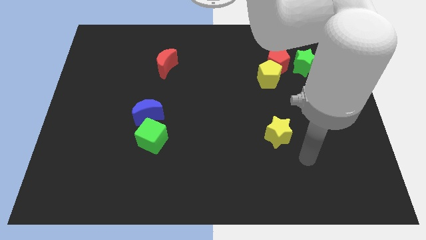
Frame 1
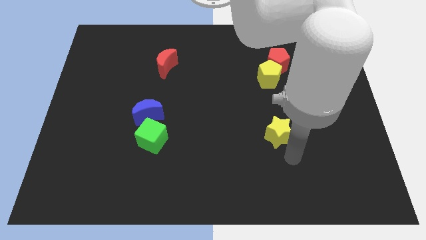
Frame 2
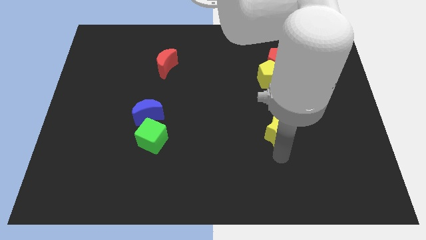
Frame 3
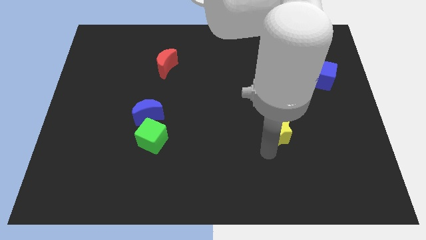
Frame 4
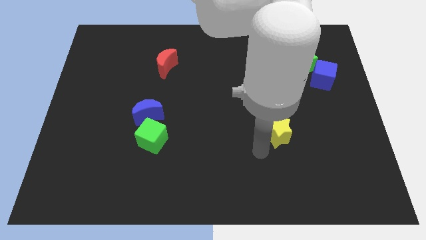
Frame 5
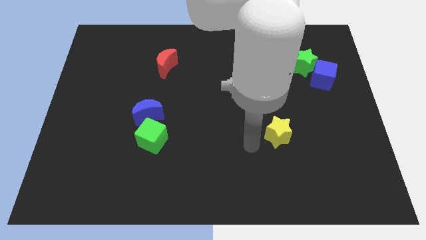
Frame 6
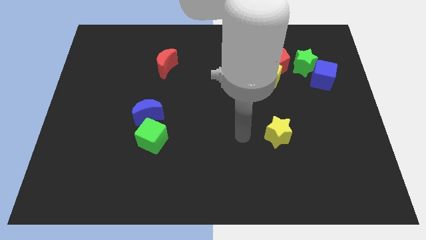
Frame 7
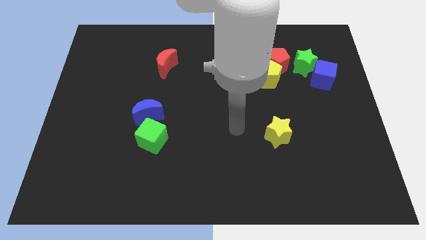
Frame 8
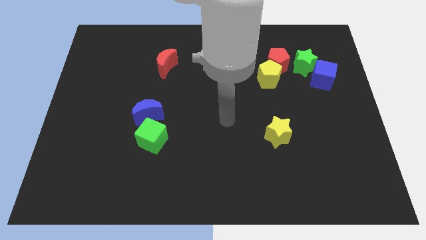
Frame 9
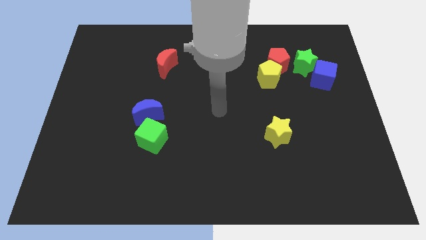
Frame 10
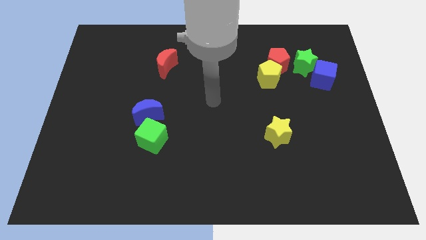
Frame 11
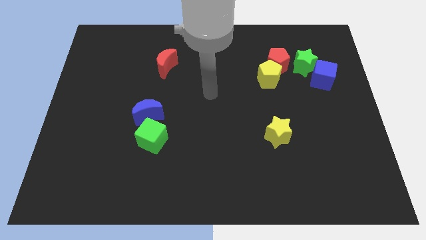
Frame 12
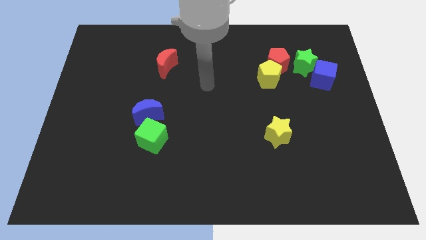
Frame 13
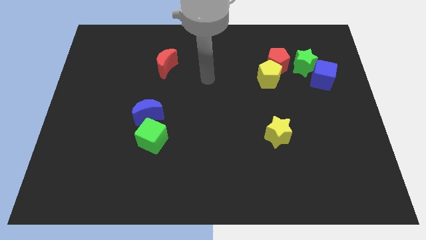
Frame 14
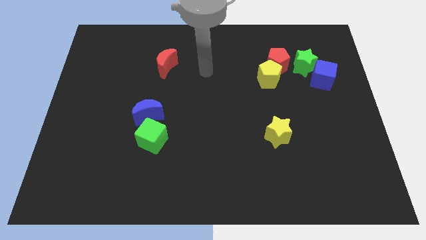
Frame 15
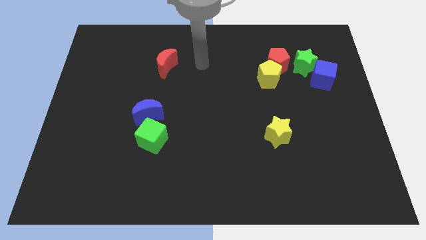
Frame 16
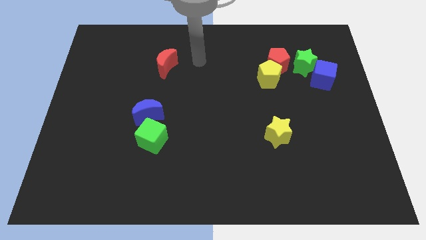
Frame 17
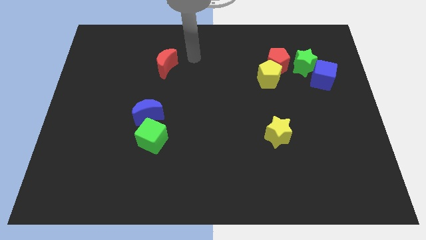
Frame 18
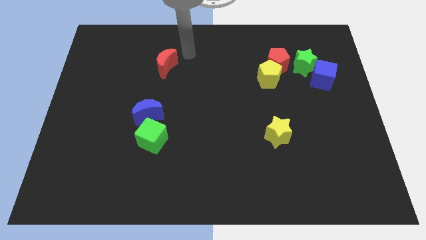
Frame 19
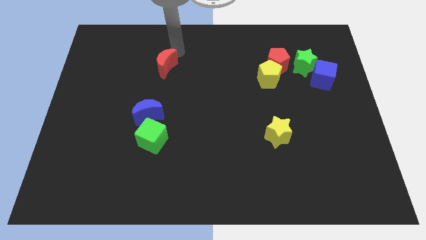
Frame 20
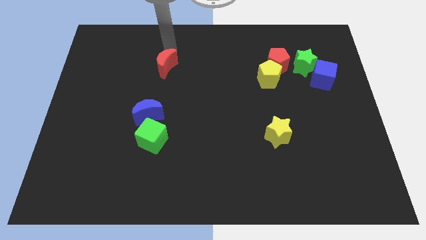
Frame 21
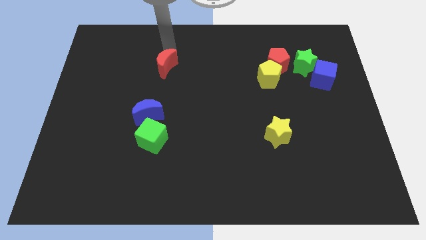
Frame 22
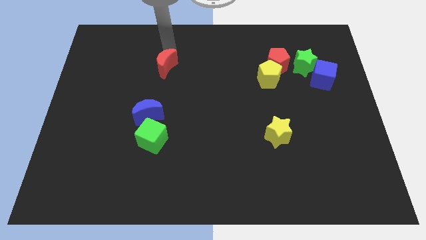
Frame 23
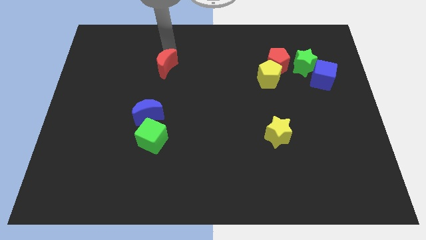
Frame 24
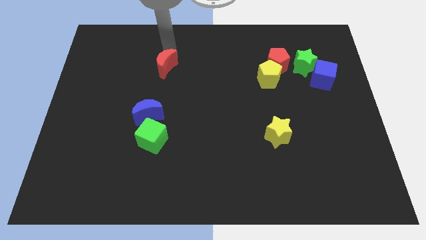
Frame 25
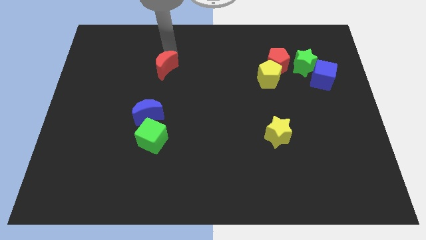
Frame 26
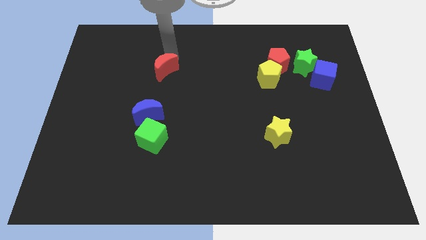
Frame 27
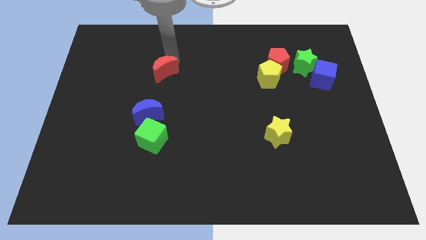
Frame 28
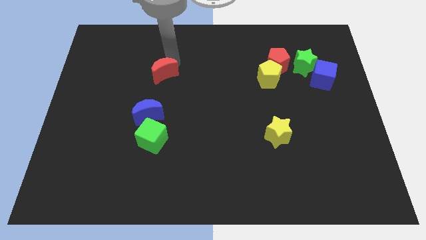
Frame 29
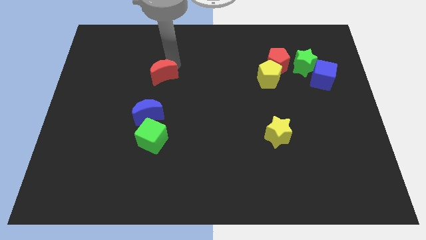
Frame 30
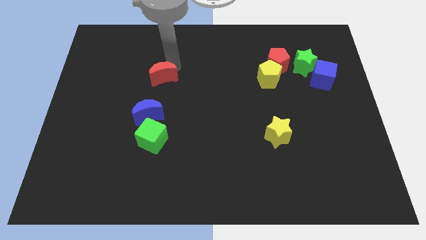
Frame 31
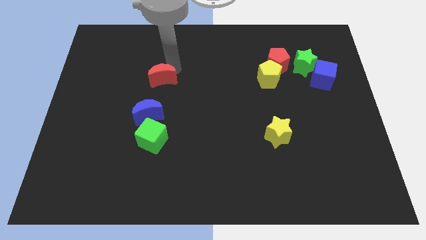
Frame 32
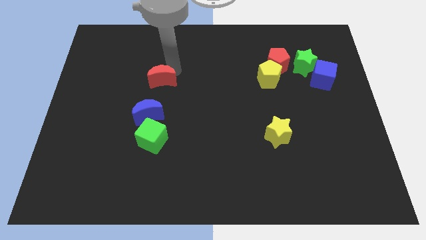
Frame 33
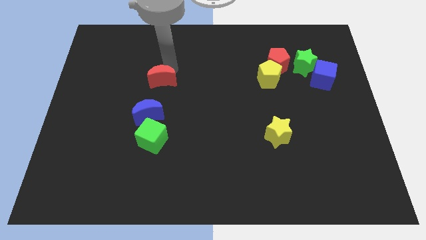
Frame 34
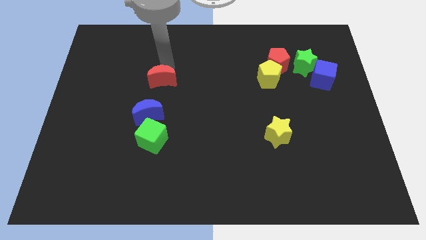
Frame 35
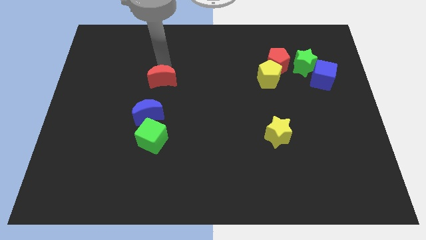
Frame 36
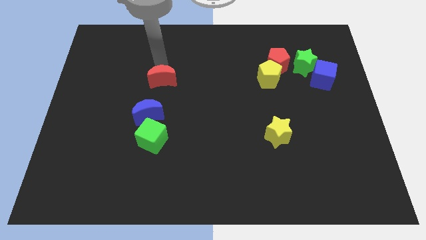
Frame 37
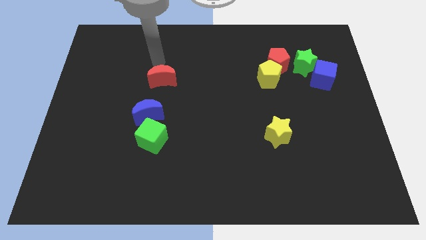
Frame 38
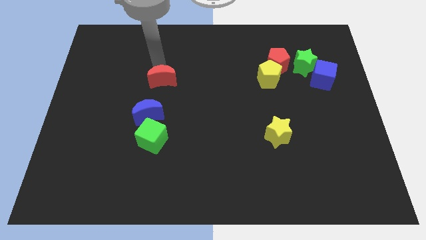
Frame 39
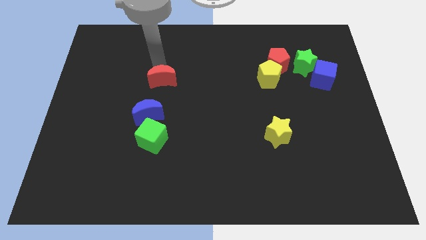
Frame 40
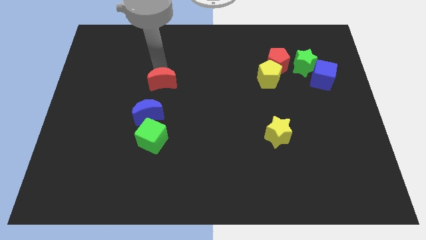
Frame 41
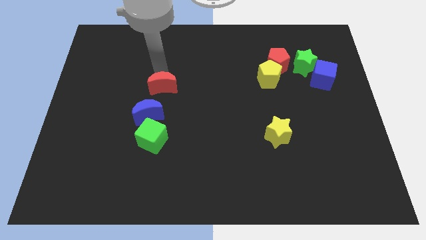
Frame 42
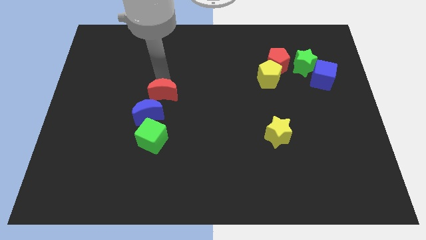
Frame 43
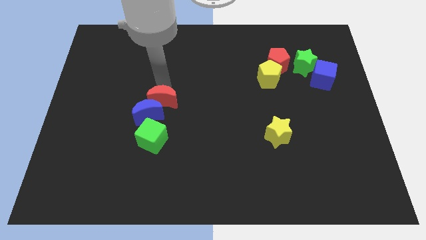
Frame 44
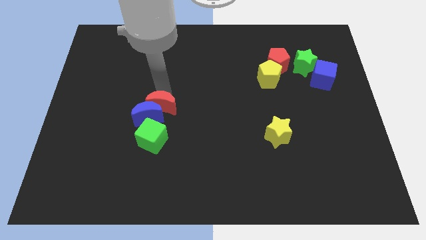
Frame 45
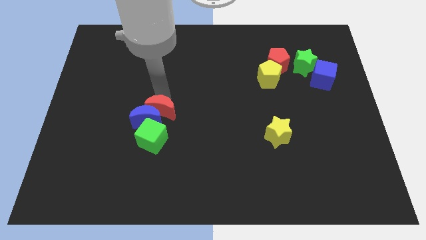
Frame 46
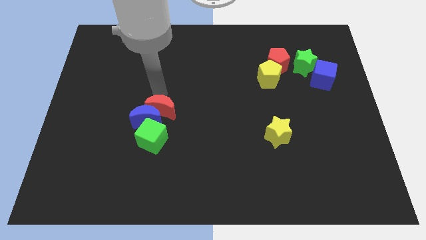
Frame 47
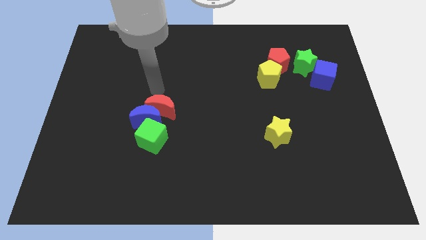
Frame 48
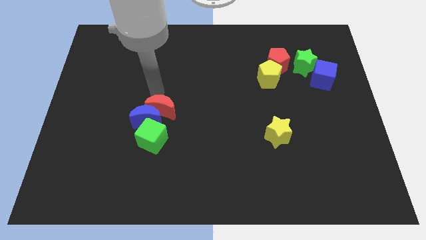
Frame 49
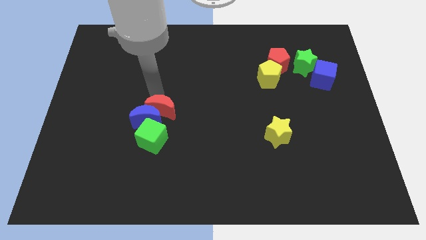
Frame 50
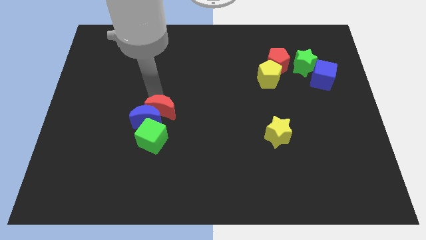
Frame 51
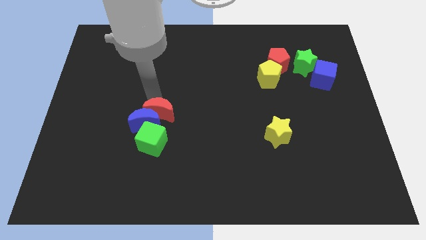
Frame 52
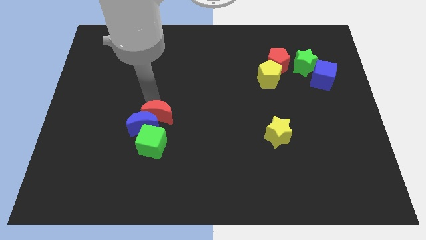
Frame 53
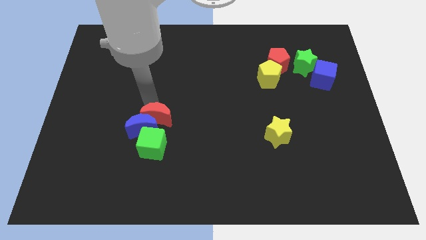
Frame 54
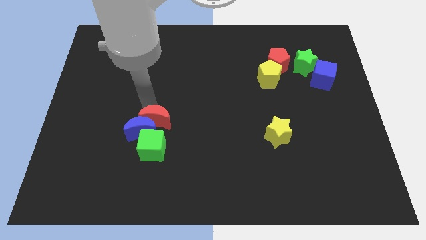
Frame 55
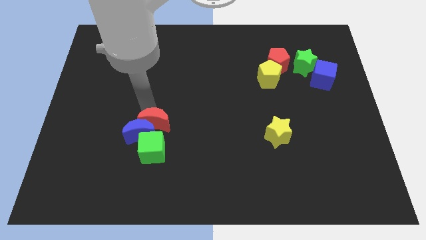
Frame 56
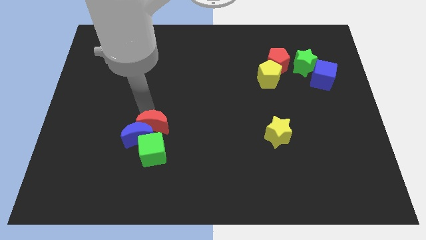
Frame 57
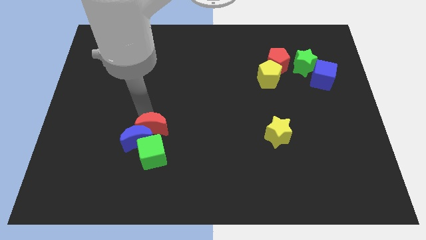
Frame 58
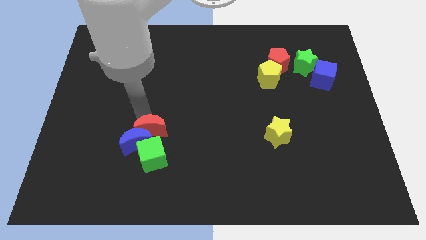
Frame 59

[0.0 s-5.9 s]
slide the red moon down

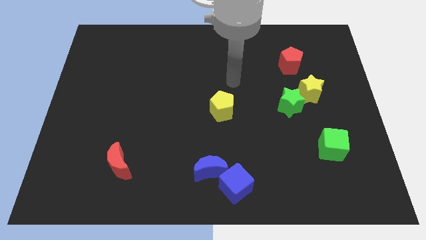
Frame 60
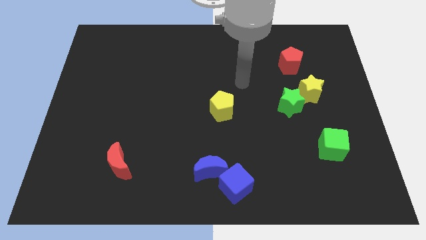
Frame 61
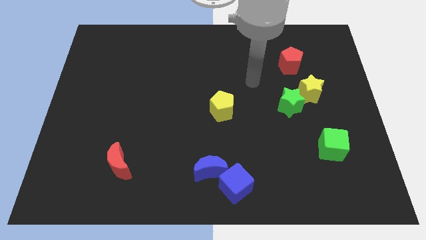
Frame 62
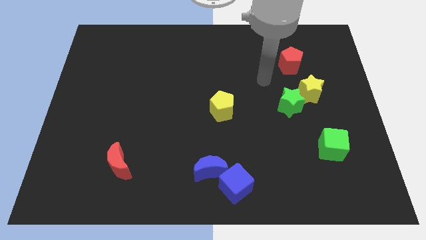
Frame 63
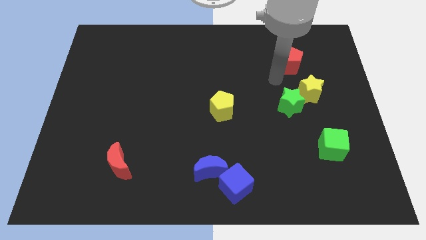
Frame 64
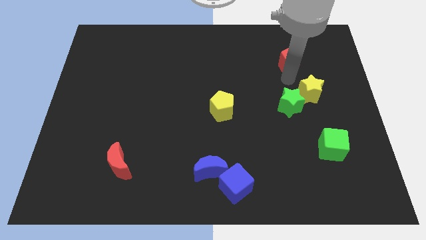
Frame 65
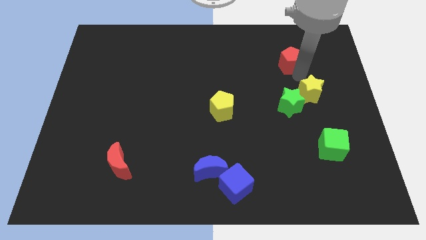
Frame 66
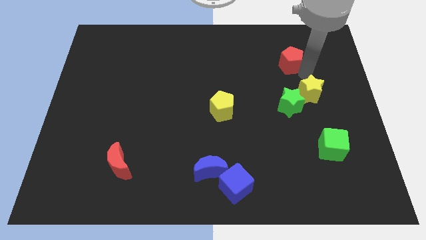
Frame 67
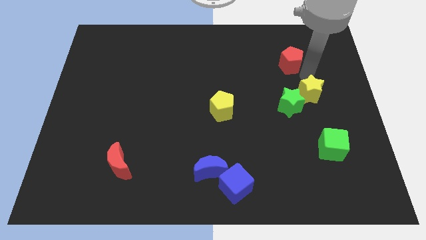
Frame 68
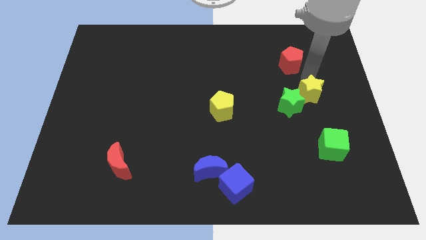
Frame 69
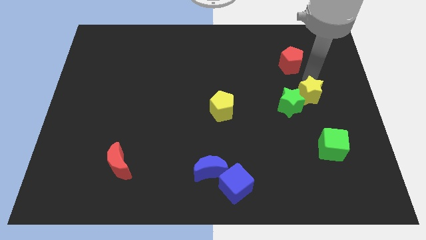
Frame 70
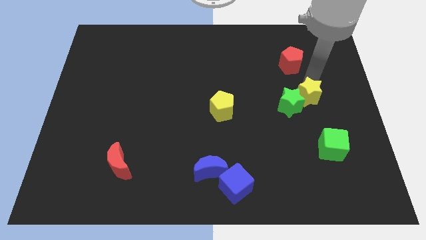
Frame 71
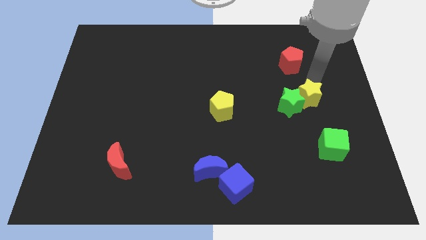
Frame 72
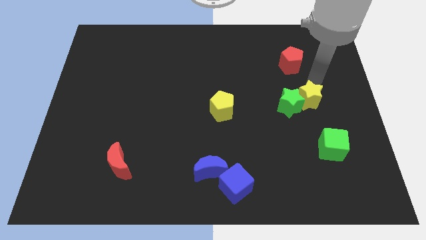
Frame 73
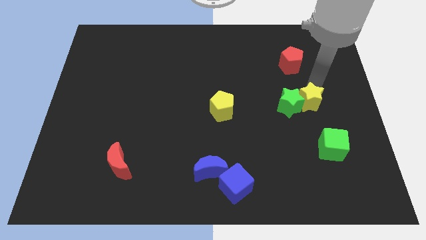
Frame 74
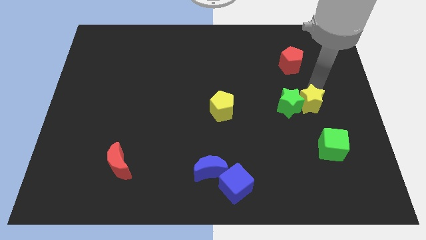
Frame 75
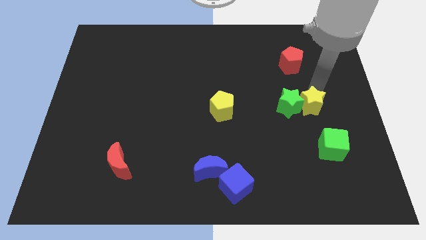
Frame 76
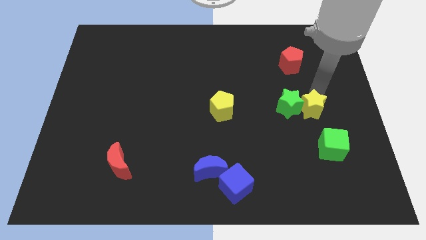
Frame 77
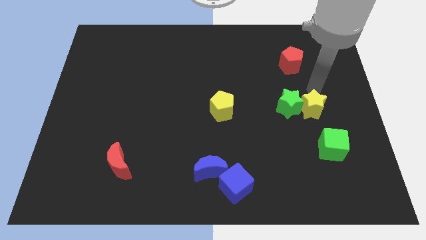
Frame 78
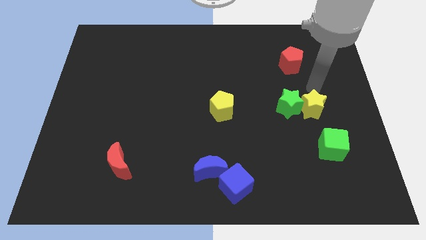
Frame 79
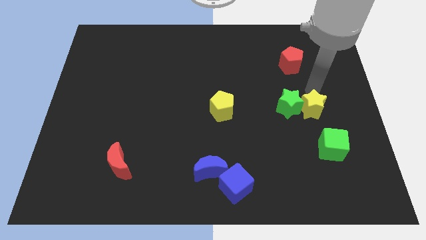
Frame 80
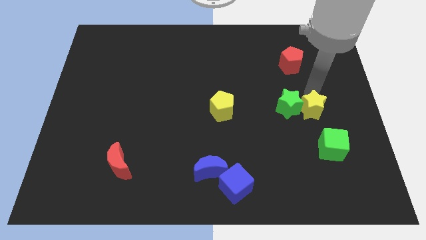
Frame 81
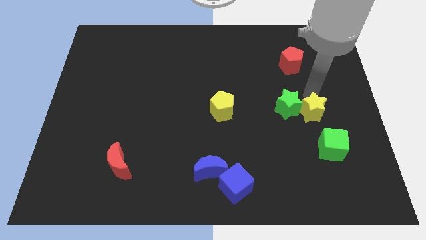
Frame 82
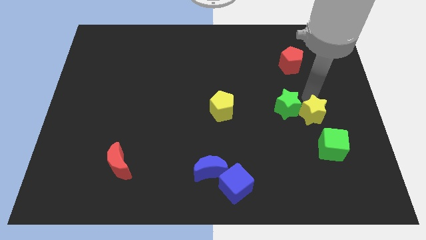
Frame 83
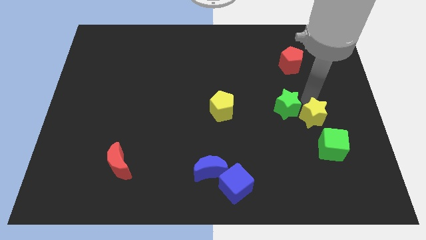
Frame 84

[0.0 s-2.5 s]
slide the yellow star a little down
